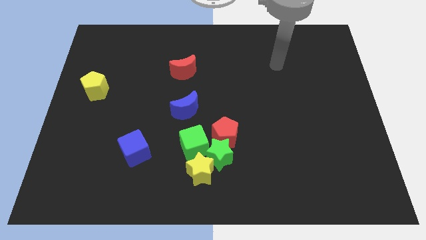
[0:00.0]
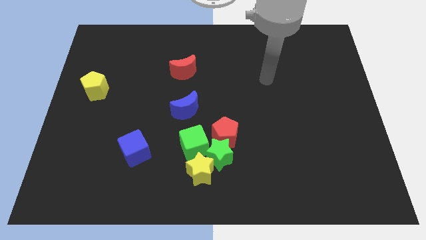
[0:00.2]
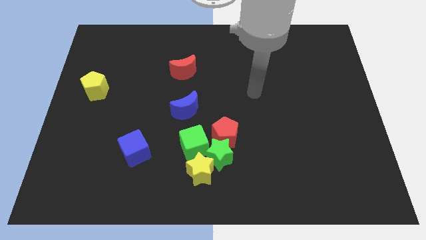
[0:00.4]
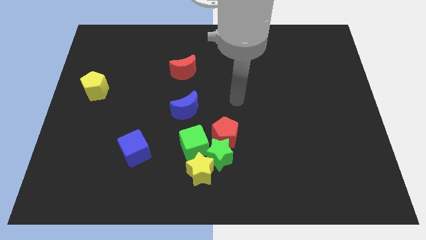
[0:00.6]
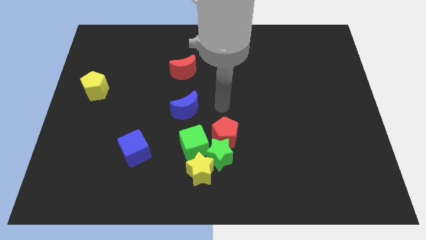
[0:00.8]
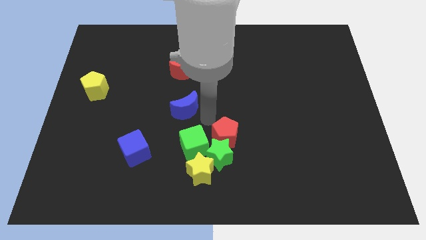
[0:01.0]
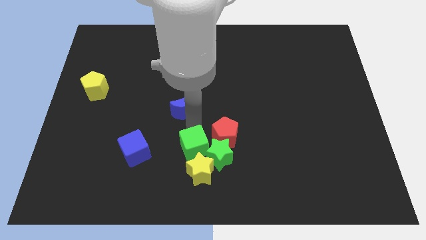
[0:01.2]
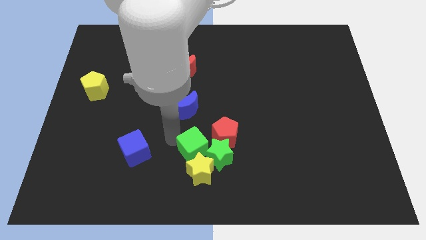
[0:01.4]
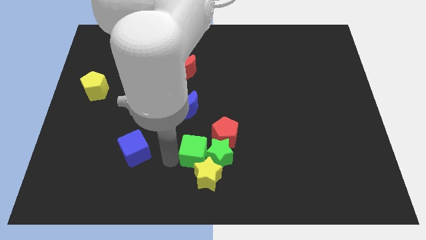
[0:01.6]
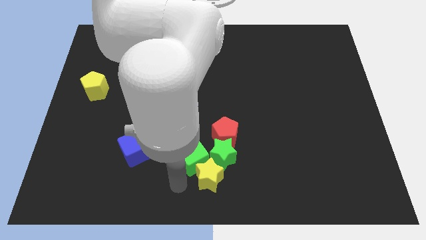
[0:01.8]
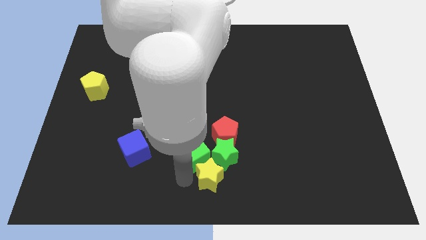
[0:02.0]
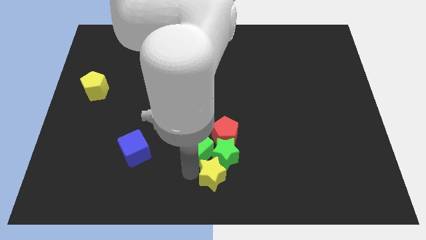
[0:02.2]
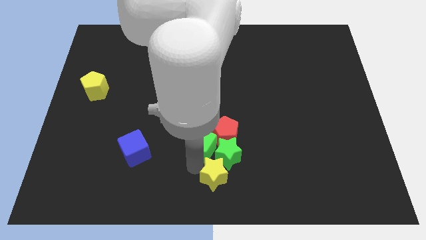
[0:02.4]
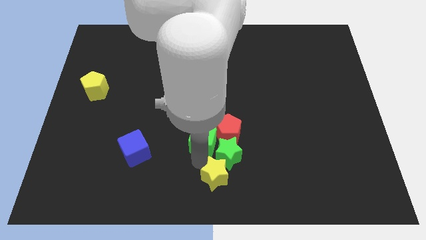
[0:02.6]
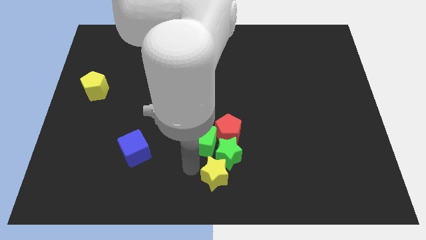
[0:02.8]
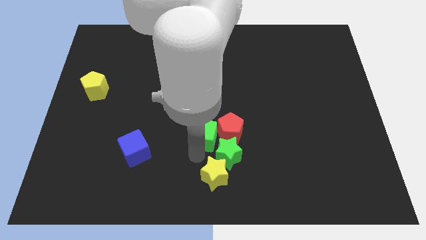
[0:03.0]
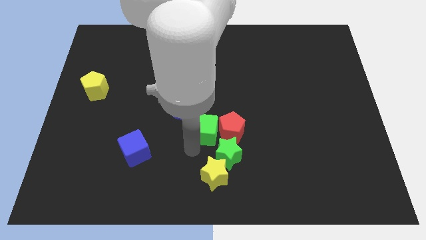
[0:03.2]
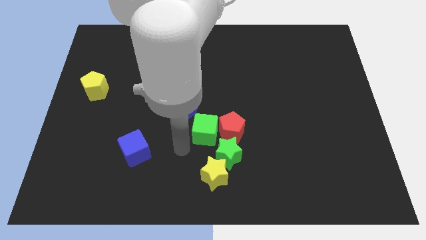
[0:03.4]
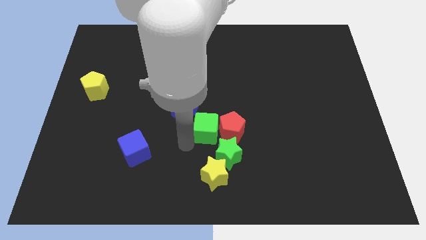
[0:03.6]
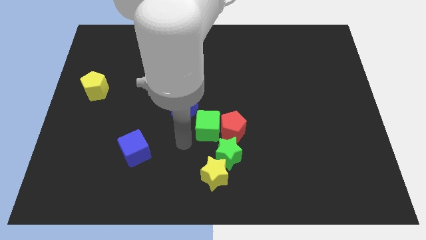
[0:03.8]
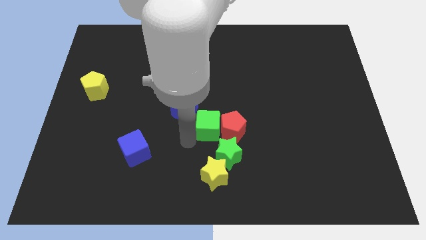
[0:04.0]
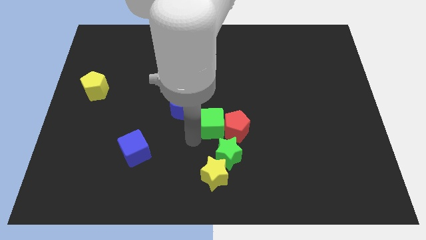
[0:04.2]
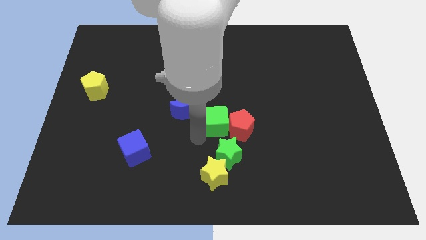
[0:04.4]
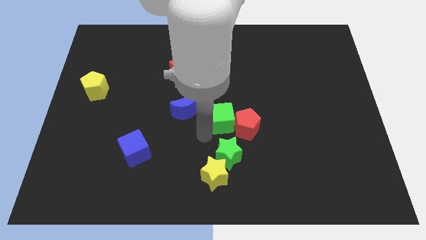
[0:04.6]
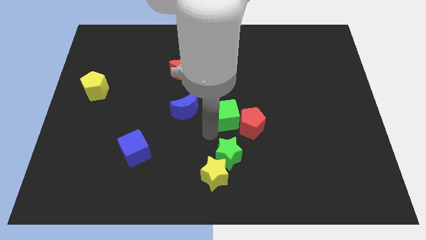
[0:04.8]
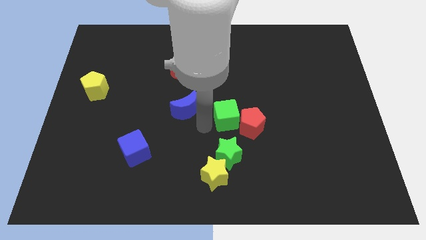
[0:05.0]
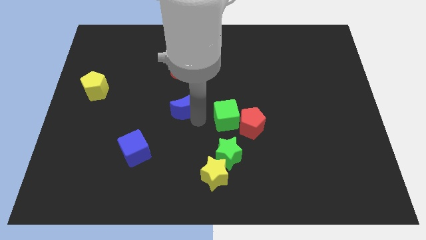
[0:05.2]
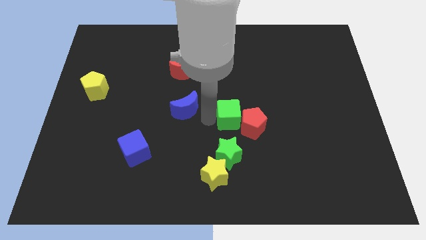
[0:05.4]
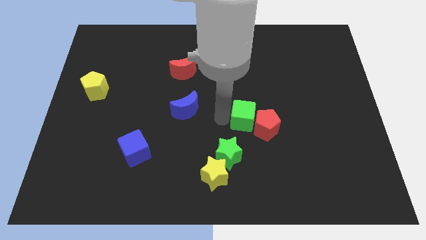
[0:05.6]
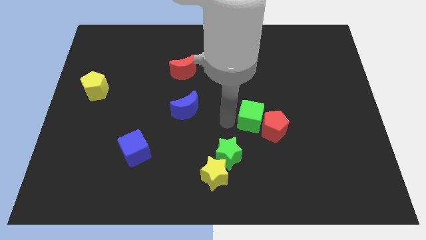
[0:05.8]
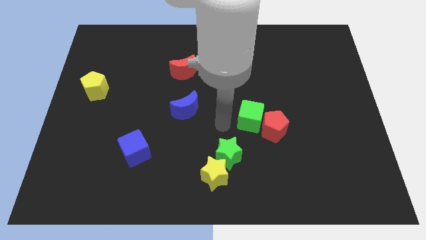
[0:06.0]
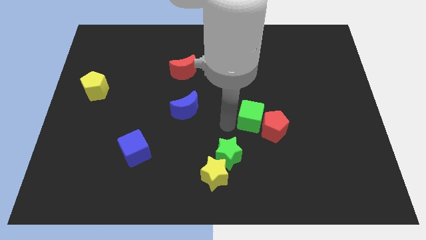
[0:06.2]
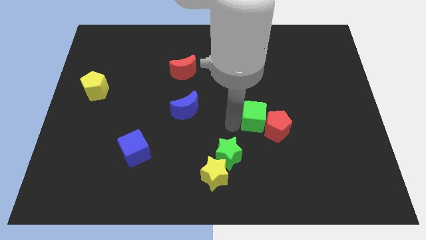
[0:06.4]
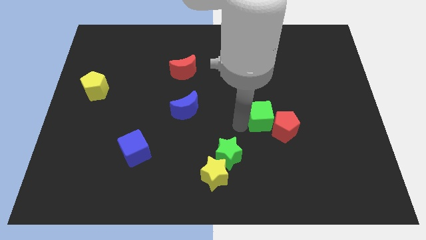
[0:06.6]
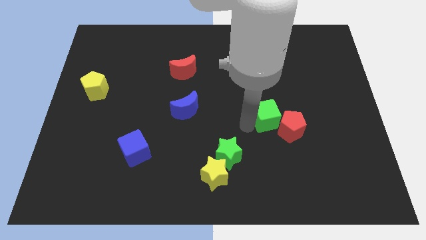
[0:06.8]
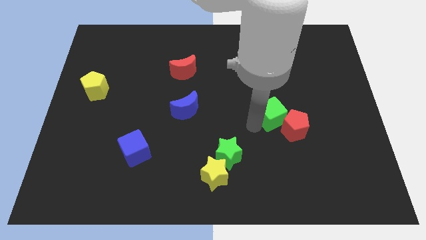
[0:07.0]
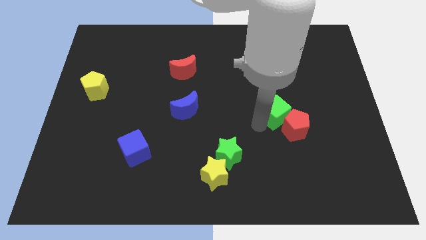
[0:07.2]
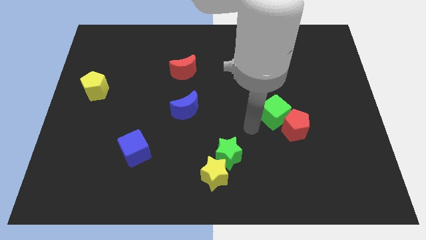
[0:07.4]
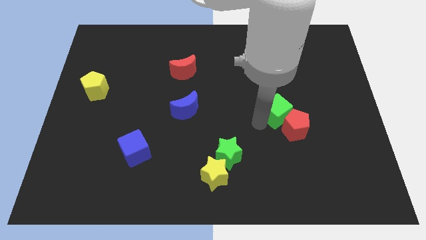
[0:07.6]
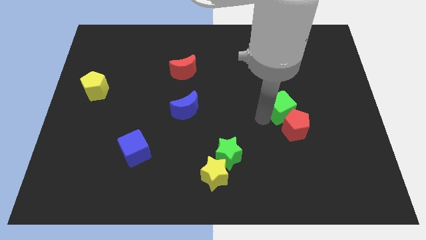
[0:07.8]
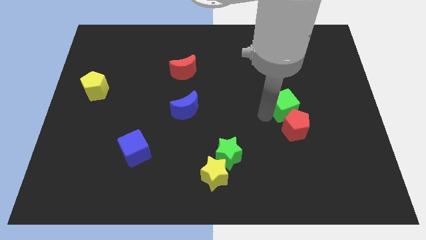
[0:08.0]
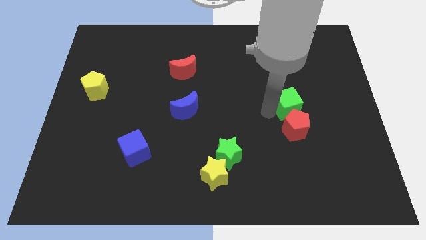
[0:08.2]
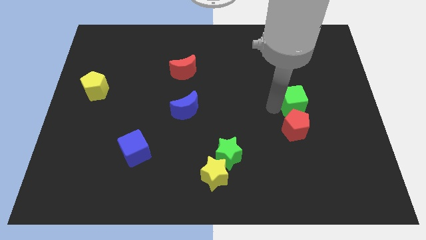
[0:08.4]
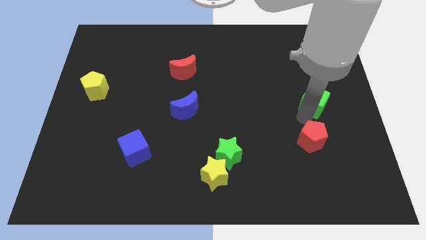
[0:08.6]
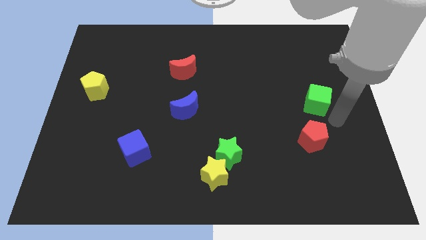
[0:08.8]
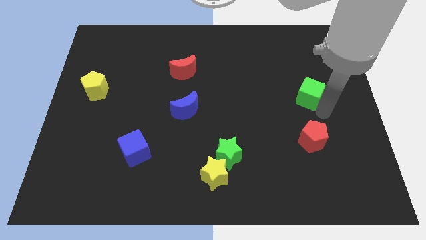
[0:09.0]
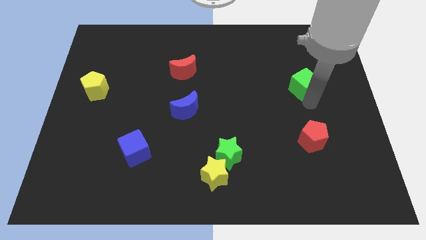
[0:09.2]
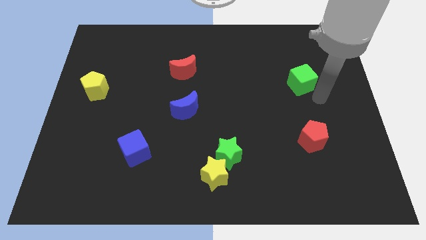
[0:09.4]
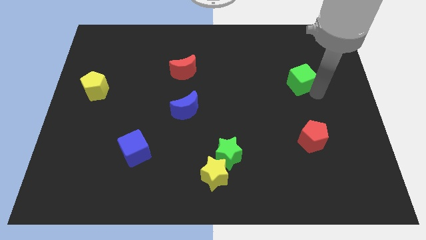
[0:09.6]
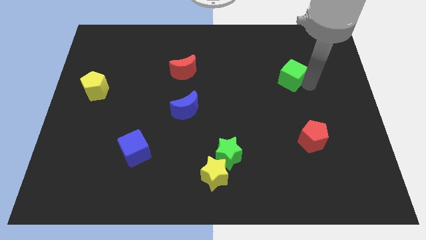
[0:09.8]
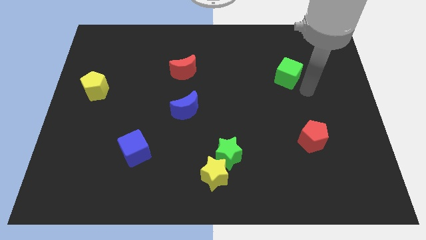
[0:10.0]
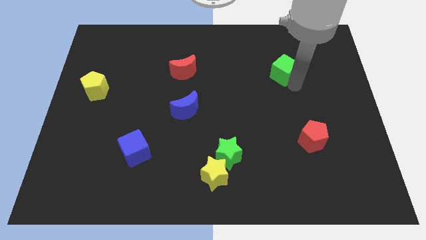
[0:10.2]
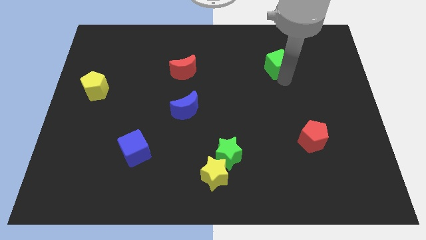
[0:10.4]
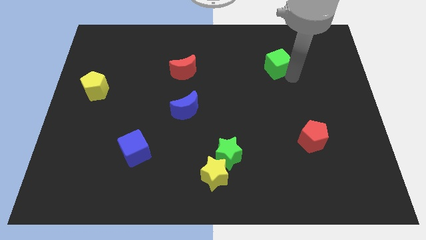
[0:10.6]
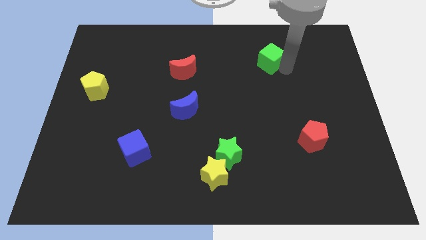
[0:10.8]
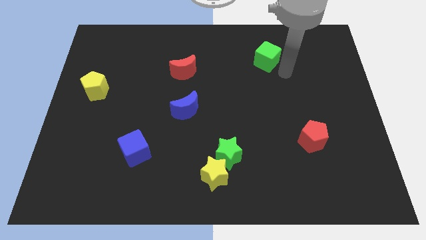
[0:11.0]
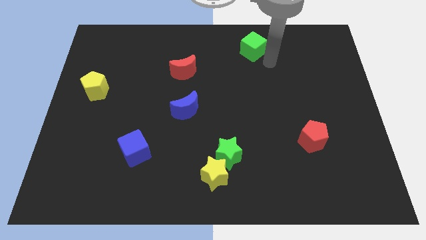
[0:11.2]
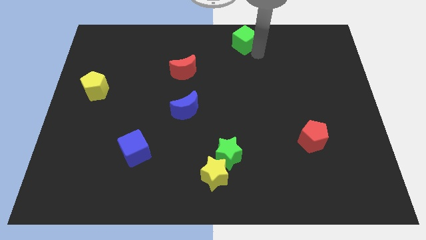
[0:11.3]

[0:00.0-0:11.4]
slide the green cube to the top side
